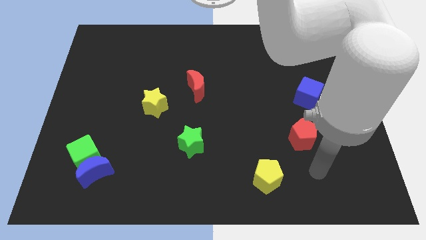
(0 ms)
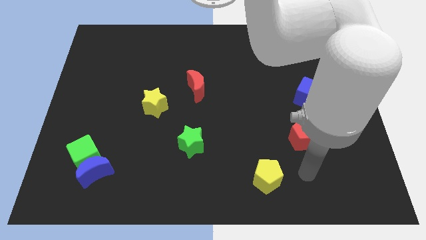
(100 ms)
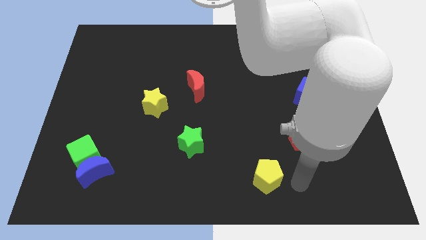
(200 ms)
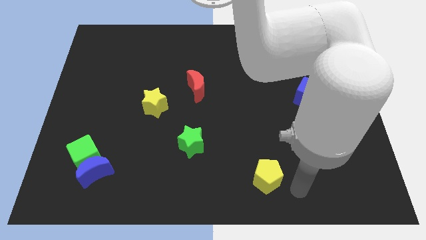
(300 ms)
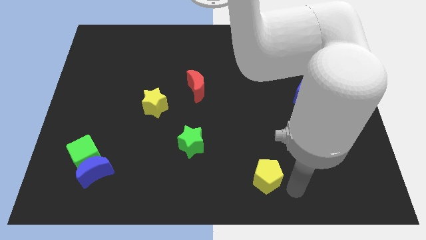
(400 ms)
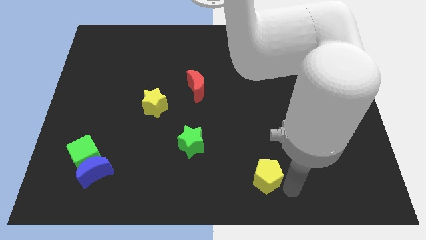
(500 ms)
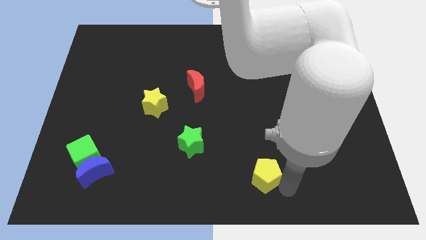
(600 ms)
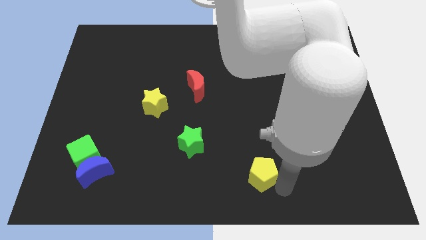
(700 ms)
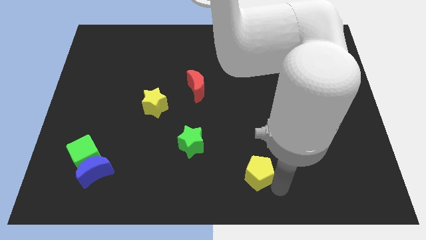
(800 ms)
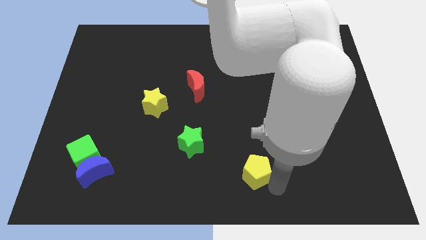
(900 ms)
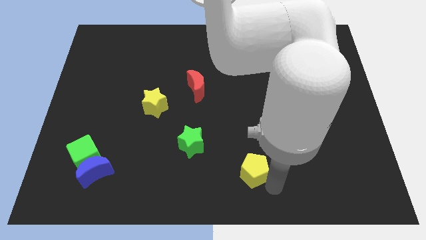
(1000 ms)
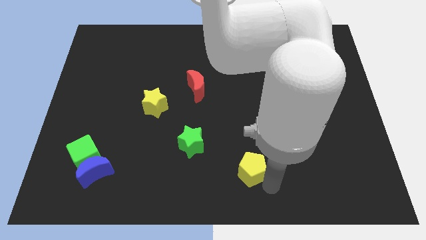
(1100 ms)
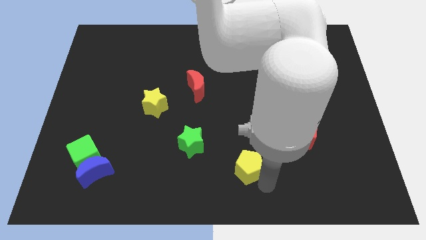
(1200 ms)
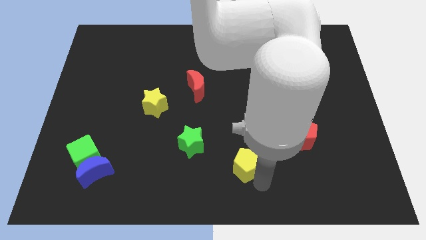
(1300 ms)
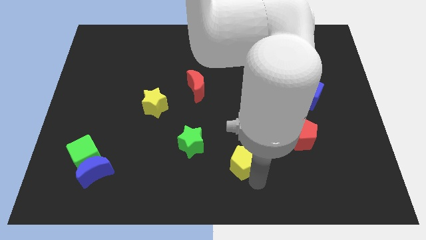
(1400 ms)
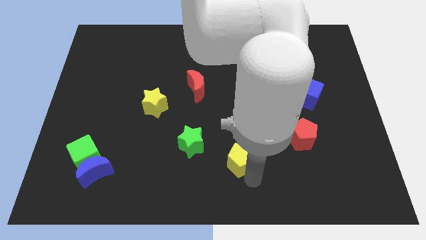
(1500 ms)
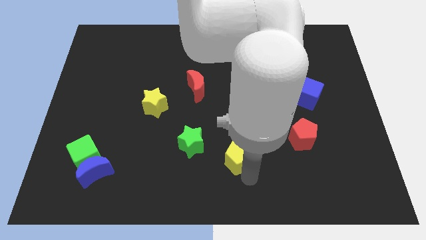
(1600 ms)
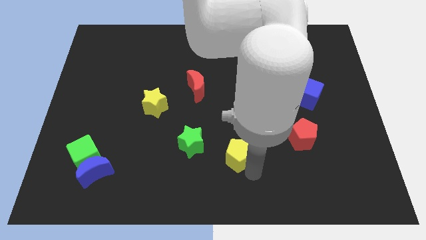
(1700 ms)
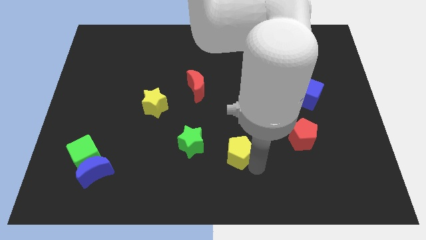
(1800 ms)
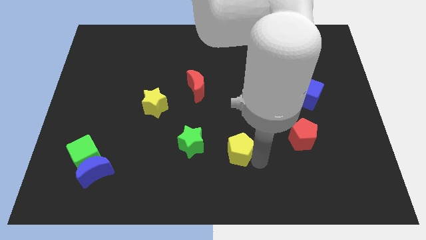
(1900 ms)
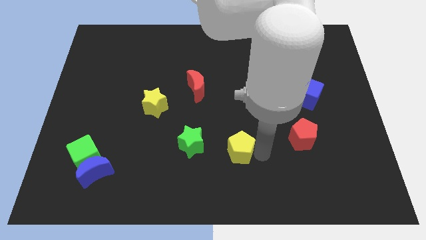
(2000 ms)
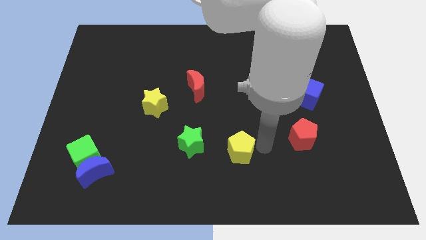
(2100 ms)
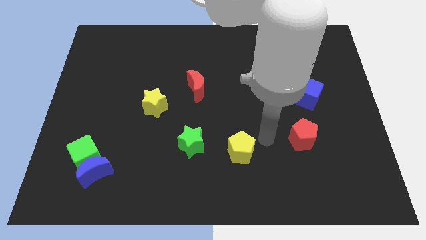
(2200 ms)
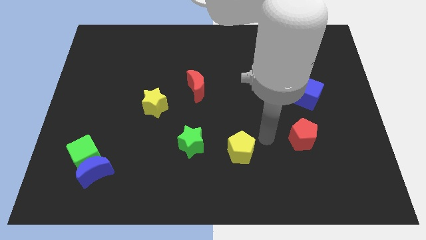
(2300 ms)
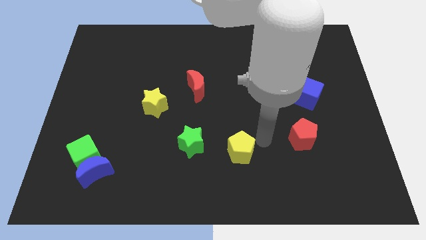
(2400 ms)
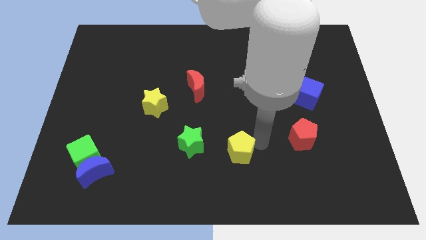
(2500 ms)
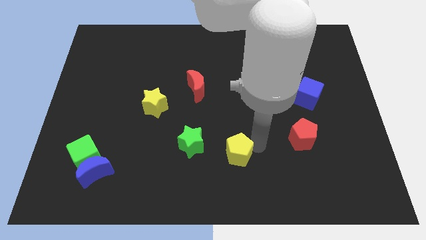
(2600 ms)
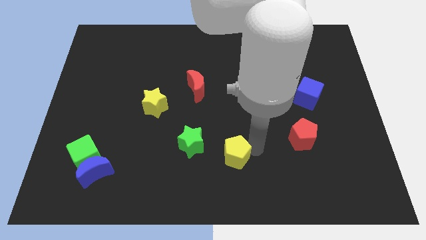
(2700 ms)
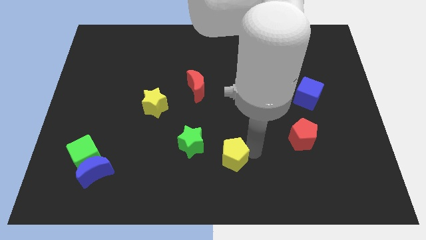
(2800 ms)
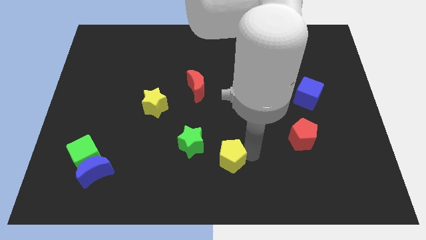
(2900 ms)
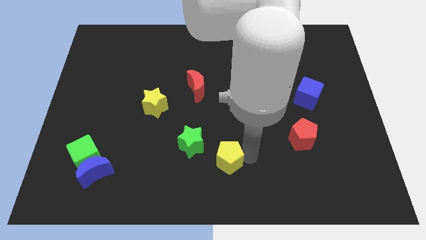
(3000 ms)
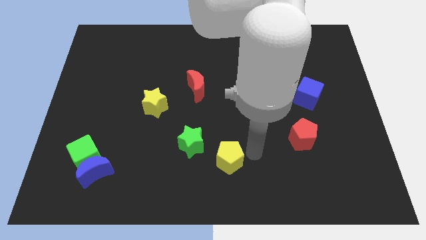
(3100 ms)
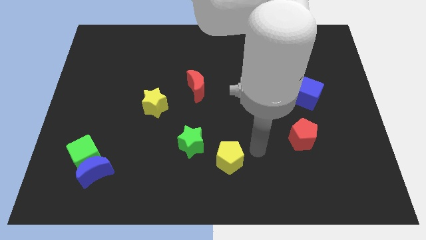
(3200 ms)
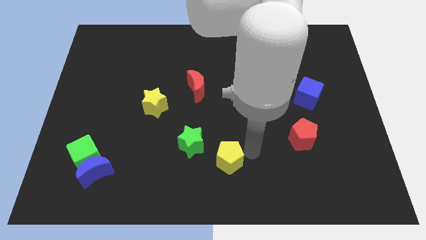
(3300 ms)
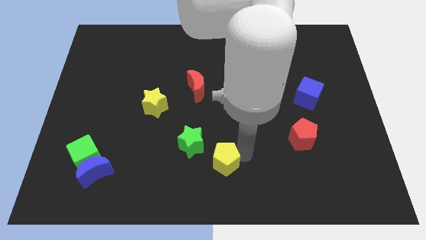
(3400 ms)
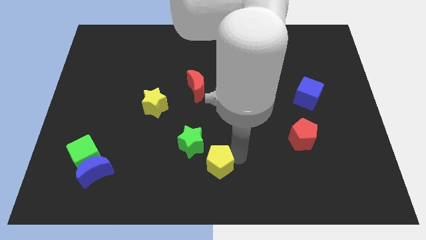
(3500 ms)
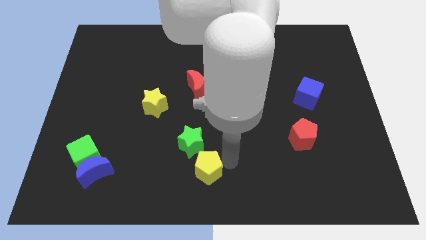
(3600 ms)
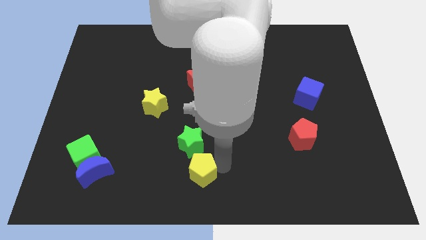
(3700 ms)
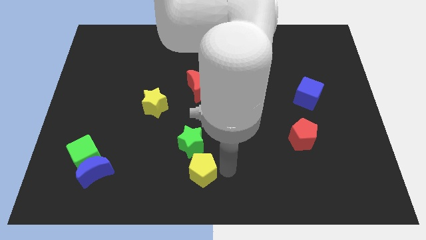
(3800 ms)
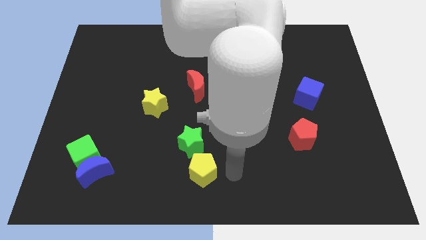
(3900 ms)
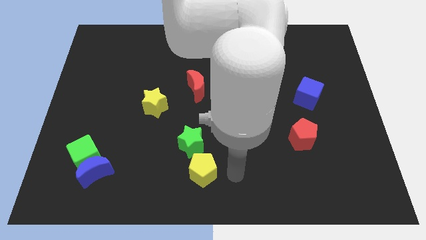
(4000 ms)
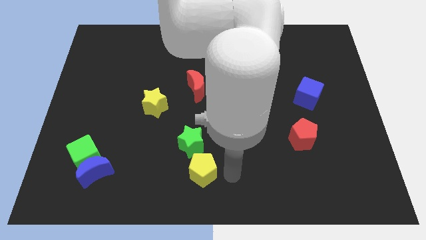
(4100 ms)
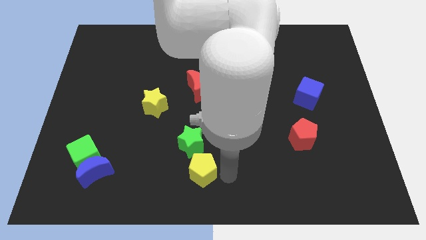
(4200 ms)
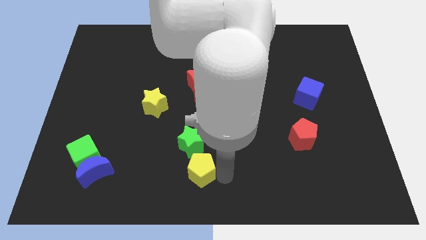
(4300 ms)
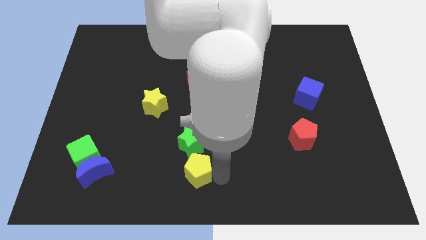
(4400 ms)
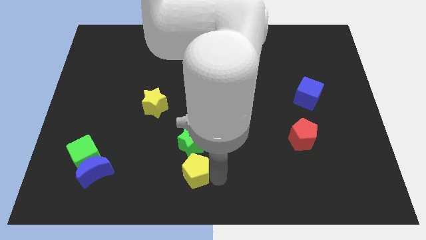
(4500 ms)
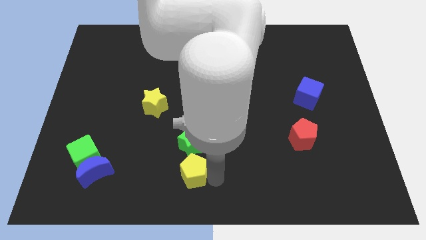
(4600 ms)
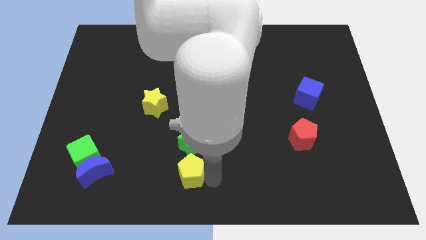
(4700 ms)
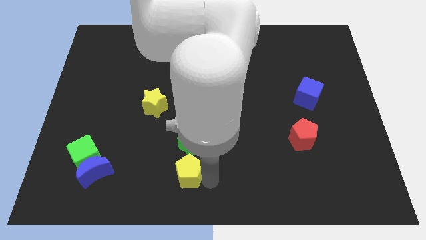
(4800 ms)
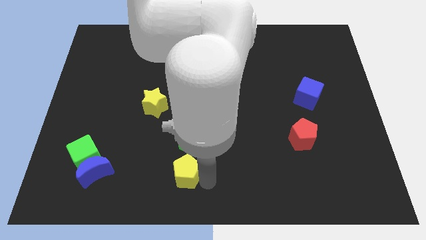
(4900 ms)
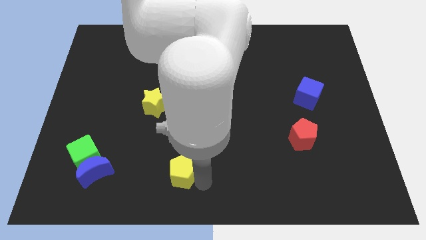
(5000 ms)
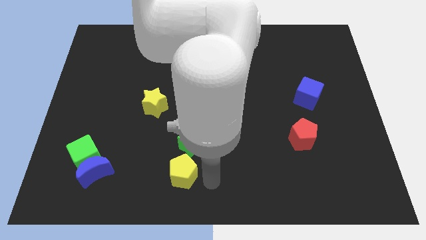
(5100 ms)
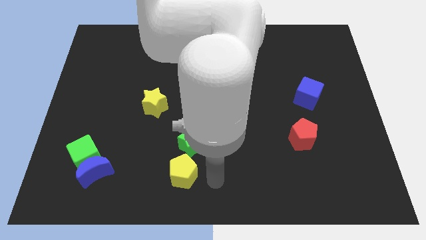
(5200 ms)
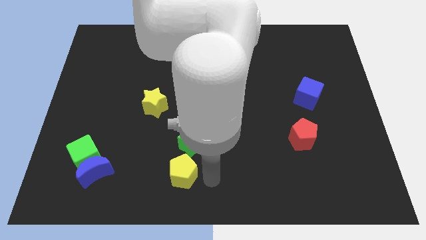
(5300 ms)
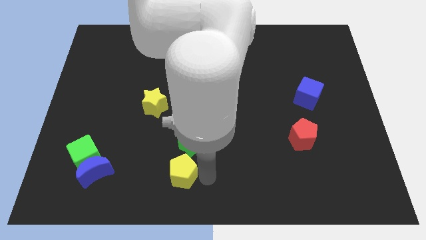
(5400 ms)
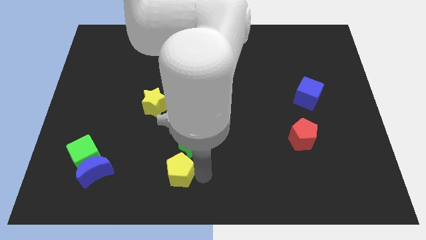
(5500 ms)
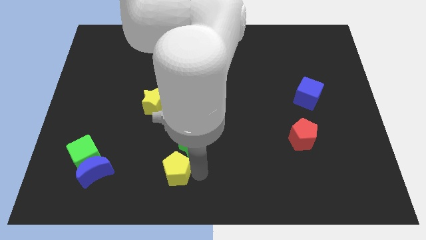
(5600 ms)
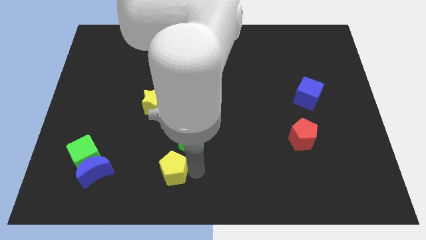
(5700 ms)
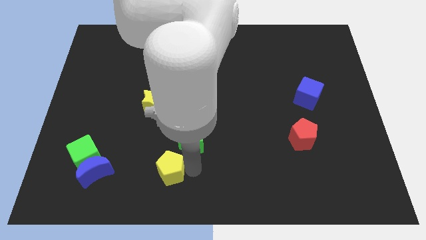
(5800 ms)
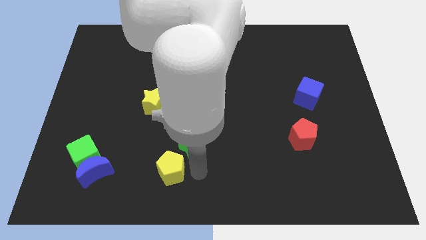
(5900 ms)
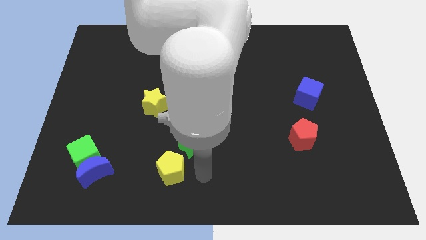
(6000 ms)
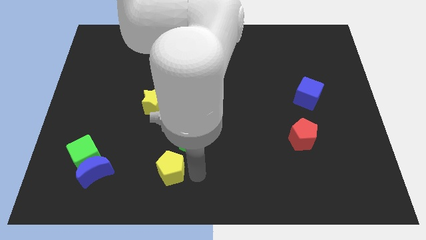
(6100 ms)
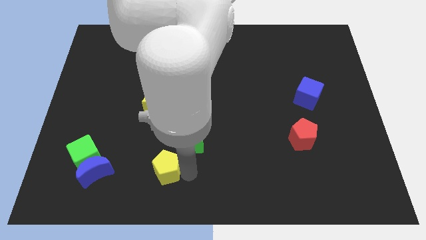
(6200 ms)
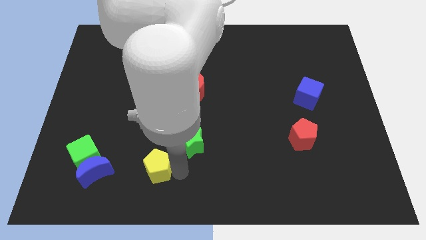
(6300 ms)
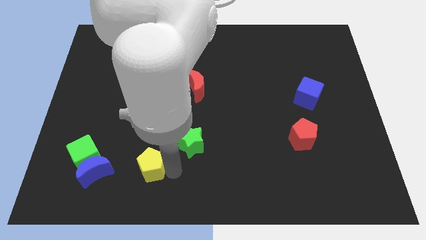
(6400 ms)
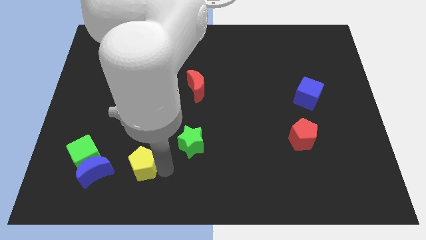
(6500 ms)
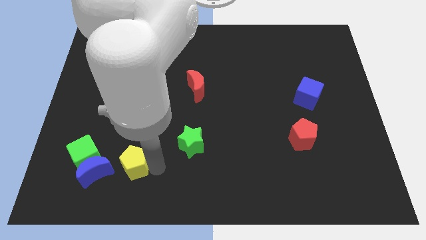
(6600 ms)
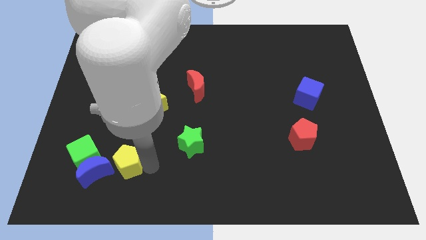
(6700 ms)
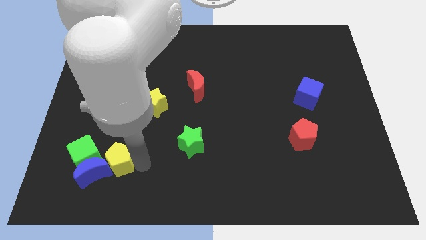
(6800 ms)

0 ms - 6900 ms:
push the yellow pentagon close to the blue moon
